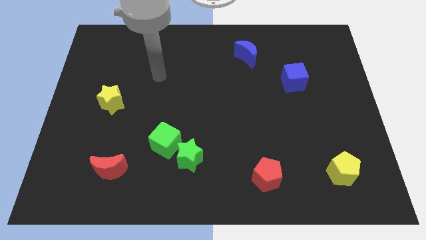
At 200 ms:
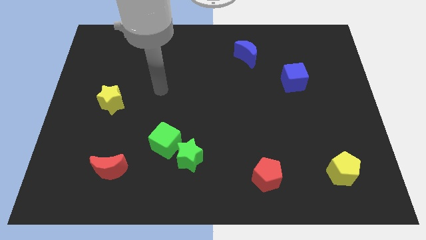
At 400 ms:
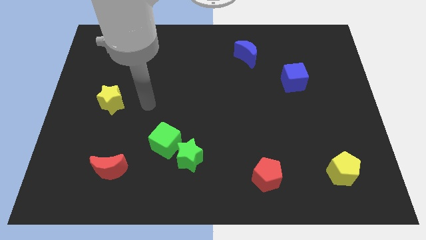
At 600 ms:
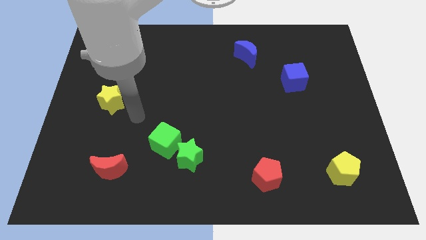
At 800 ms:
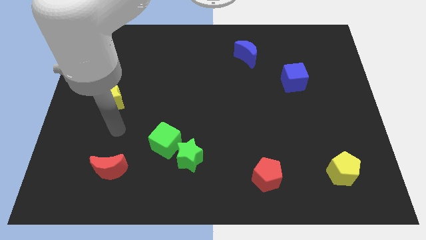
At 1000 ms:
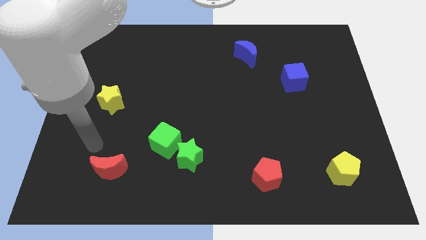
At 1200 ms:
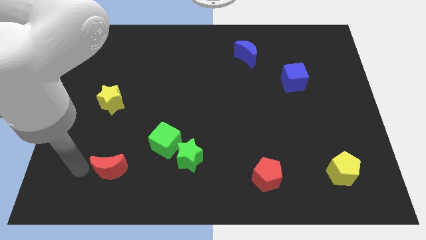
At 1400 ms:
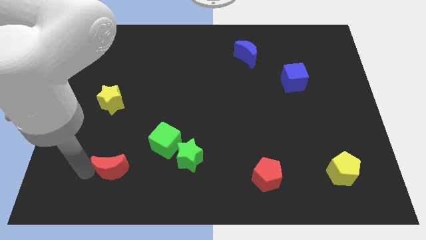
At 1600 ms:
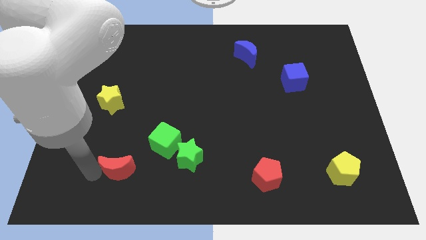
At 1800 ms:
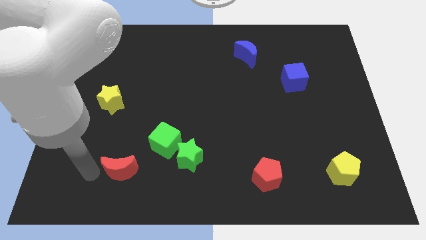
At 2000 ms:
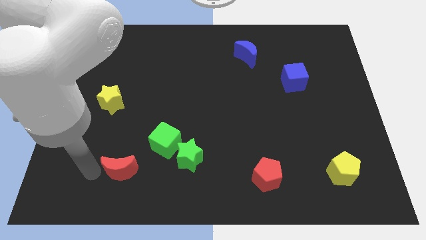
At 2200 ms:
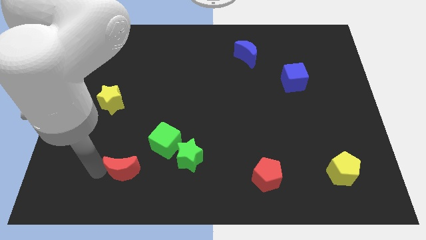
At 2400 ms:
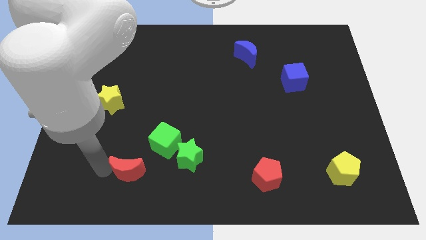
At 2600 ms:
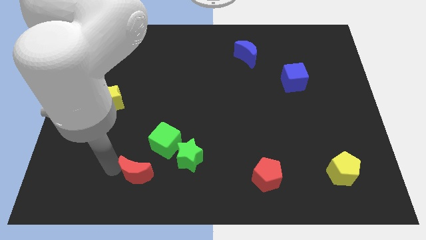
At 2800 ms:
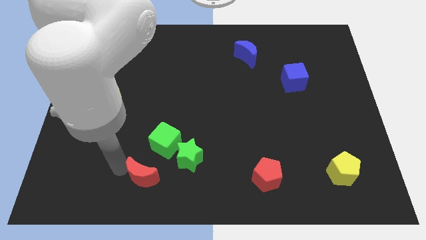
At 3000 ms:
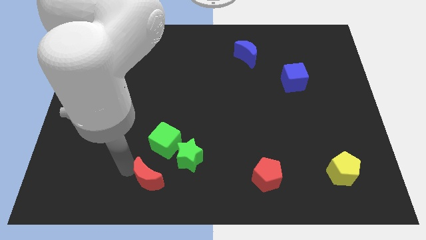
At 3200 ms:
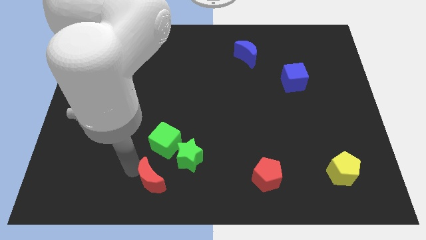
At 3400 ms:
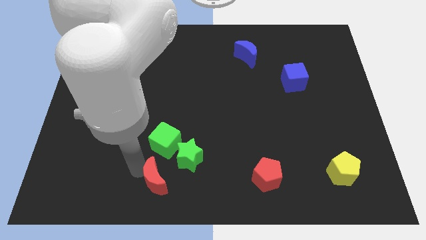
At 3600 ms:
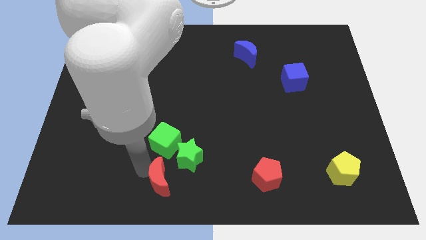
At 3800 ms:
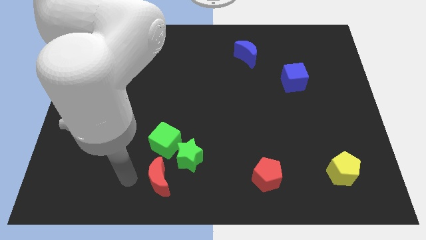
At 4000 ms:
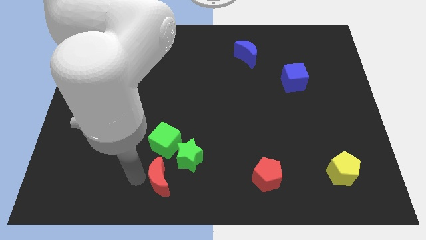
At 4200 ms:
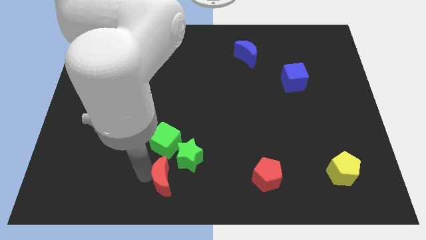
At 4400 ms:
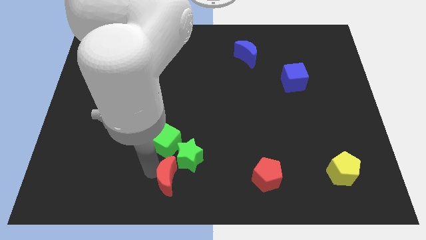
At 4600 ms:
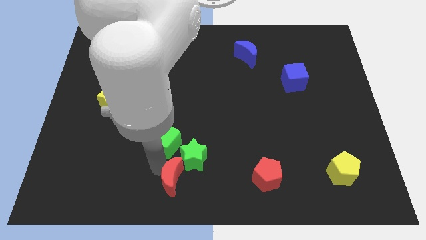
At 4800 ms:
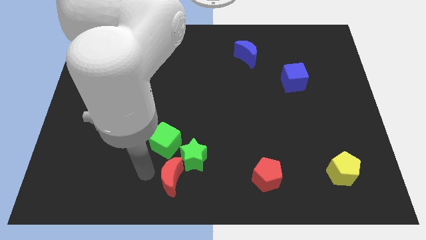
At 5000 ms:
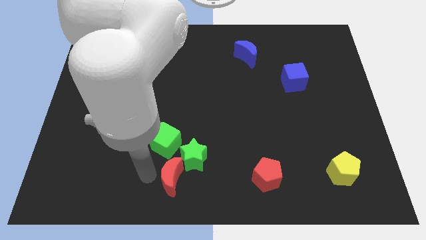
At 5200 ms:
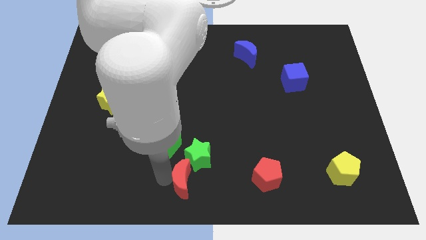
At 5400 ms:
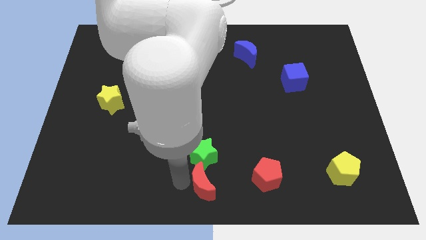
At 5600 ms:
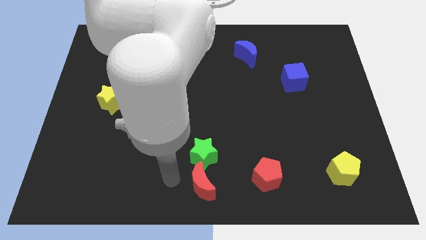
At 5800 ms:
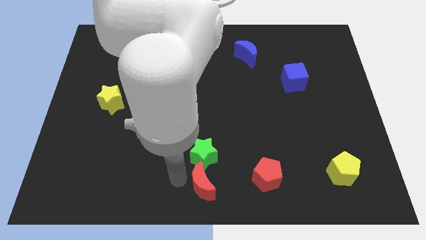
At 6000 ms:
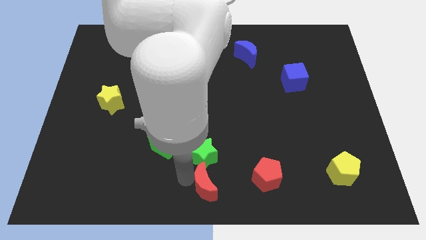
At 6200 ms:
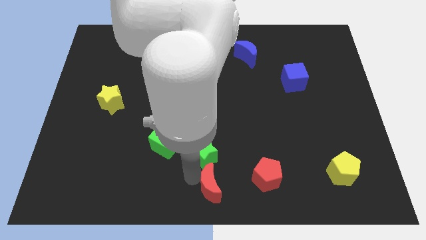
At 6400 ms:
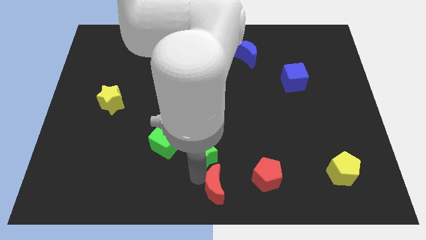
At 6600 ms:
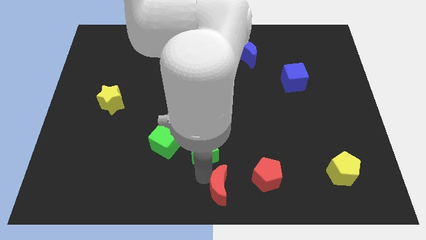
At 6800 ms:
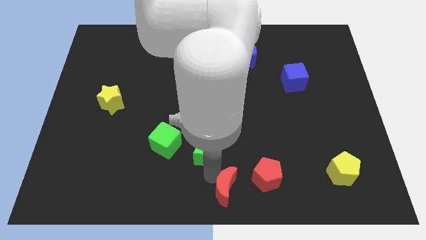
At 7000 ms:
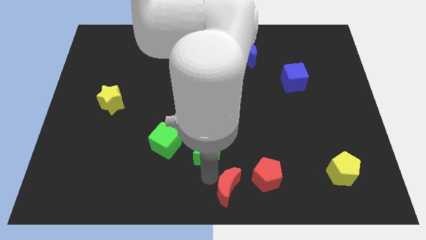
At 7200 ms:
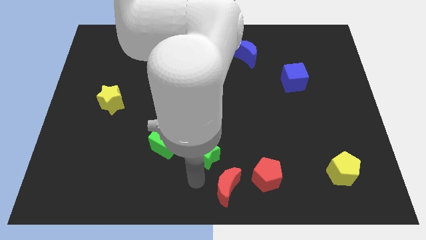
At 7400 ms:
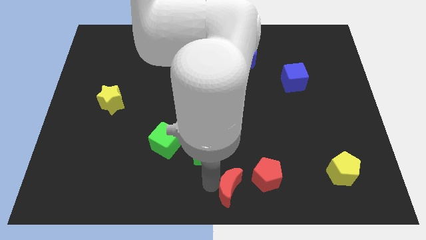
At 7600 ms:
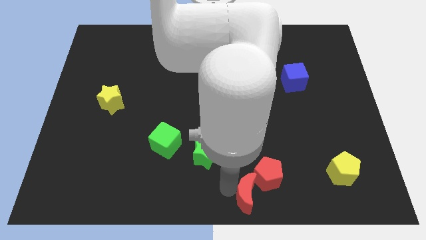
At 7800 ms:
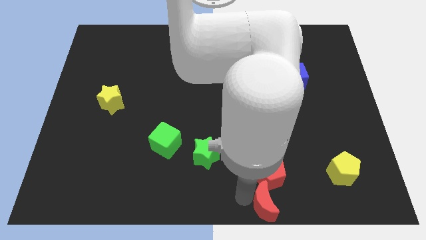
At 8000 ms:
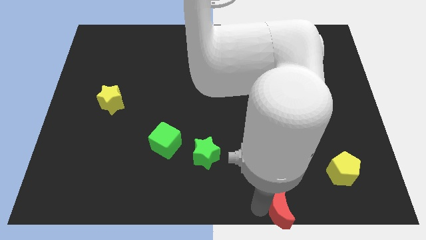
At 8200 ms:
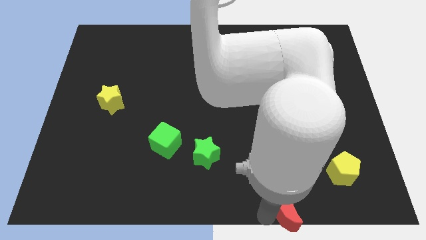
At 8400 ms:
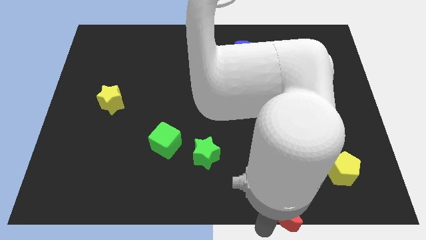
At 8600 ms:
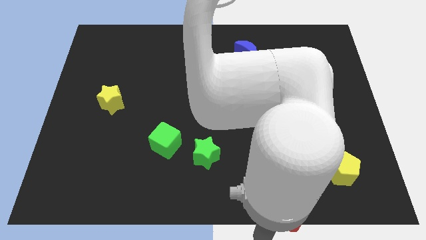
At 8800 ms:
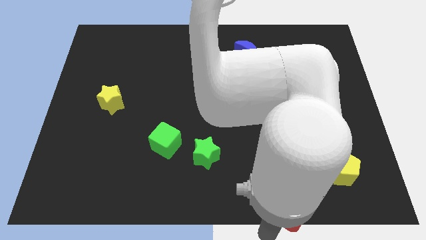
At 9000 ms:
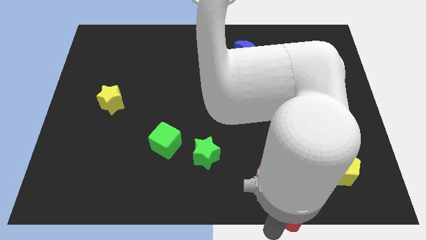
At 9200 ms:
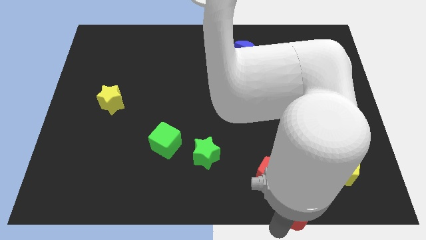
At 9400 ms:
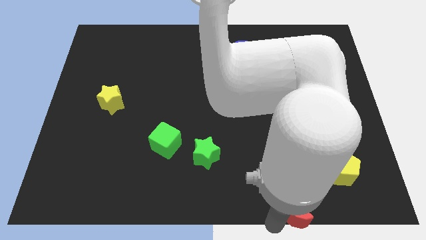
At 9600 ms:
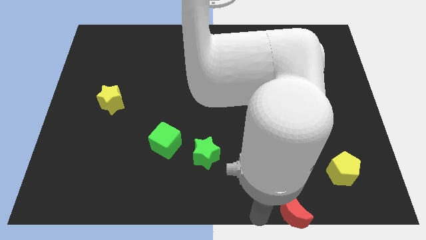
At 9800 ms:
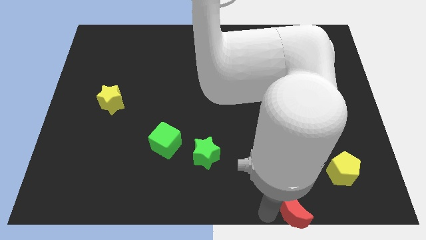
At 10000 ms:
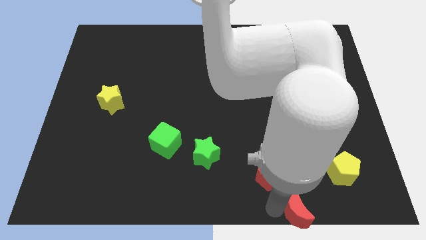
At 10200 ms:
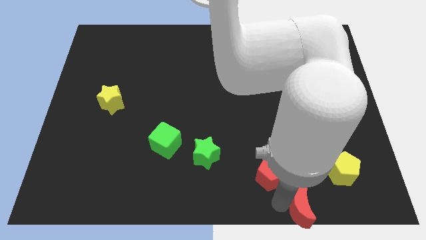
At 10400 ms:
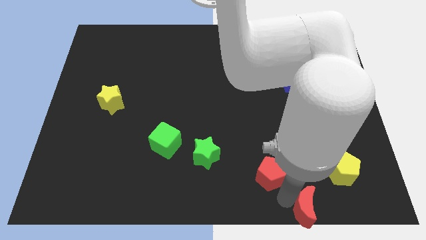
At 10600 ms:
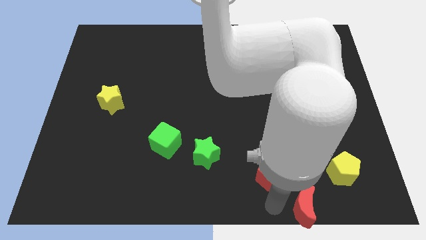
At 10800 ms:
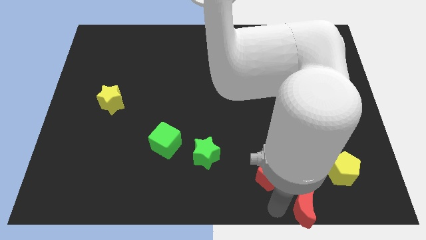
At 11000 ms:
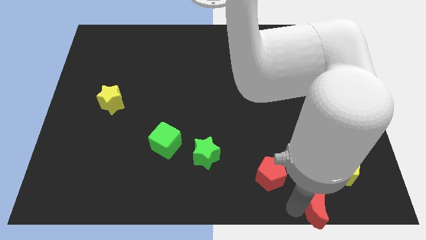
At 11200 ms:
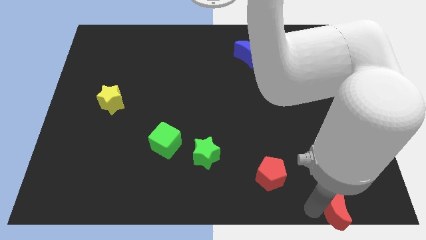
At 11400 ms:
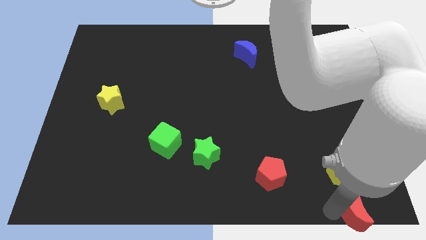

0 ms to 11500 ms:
move the red moon to the bottom right corner
